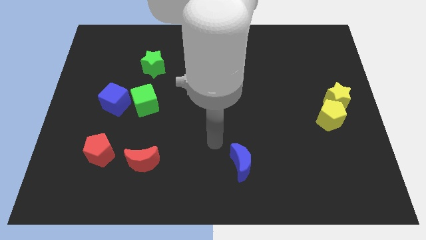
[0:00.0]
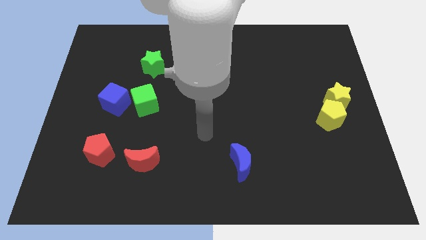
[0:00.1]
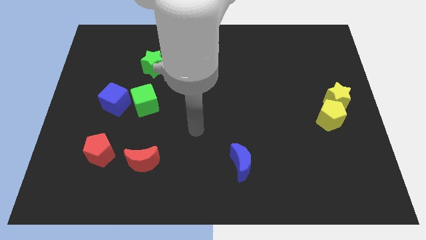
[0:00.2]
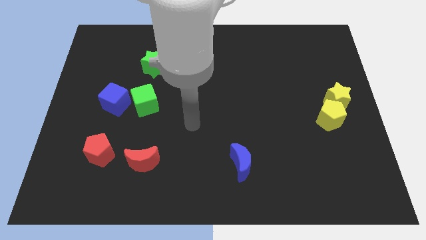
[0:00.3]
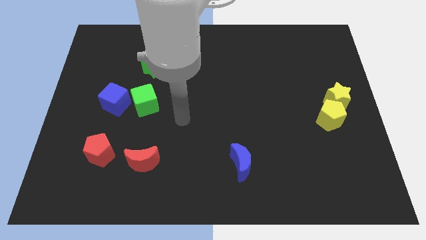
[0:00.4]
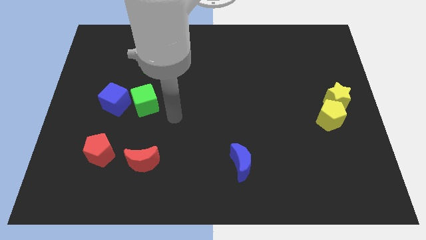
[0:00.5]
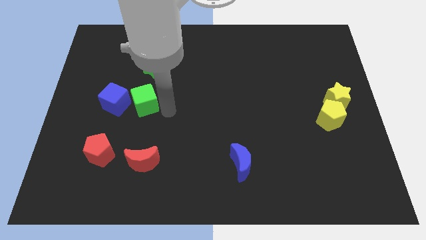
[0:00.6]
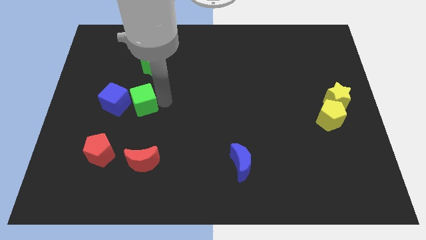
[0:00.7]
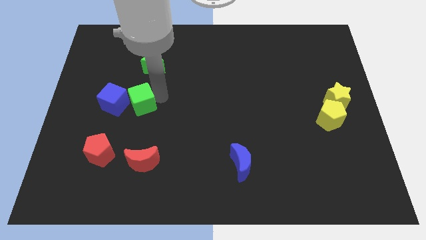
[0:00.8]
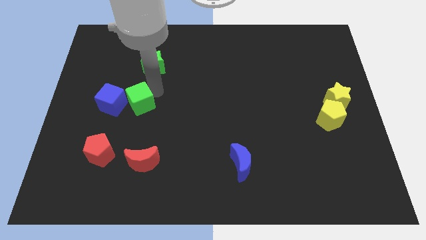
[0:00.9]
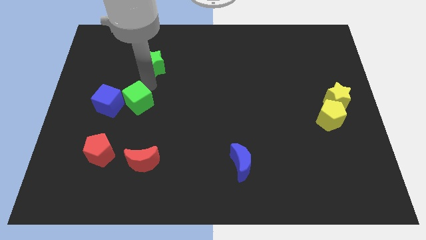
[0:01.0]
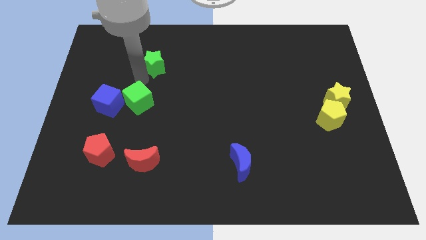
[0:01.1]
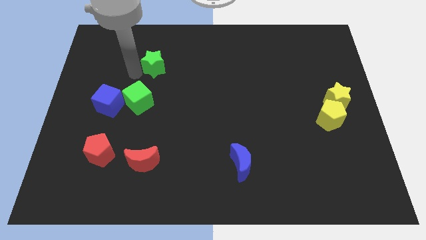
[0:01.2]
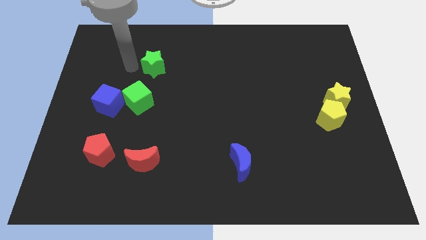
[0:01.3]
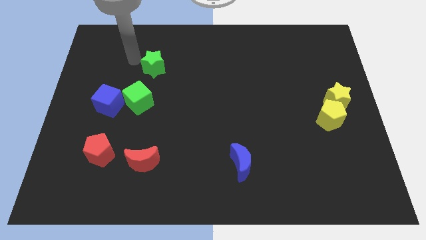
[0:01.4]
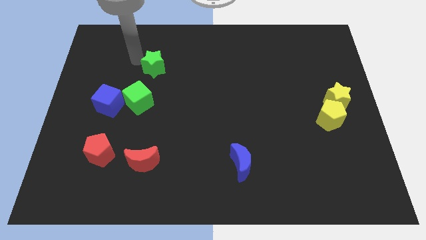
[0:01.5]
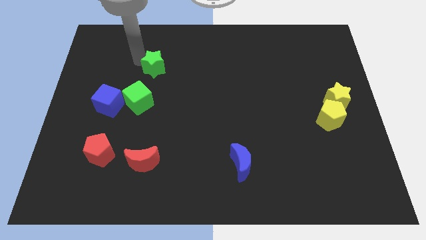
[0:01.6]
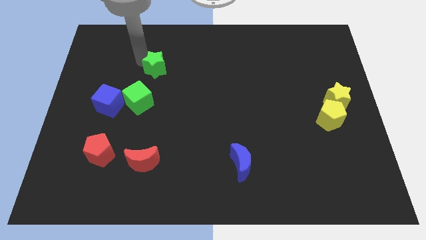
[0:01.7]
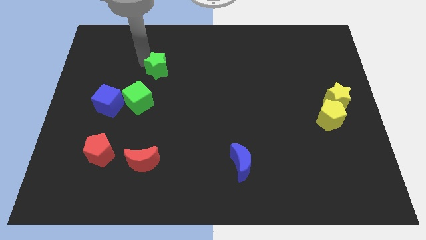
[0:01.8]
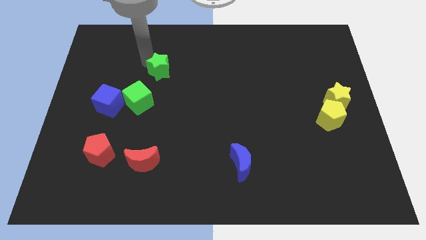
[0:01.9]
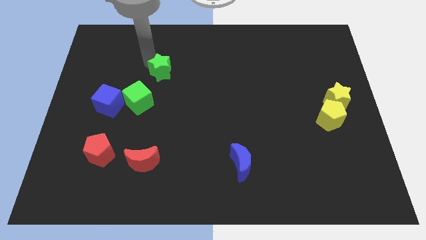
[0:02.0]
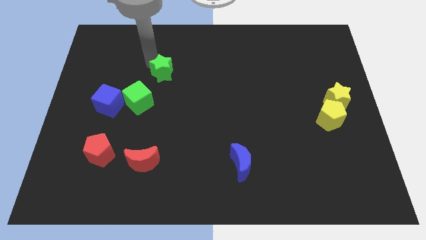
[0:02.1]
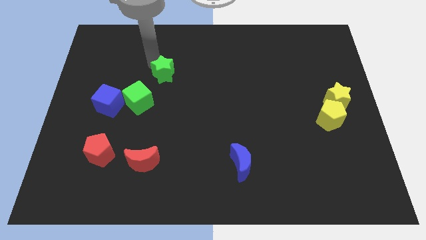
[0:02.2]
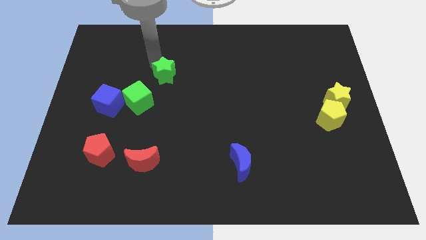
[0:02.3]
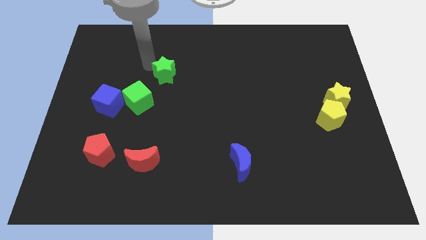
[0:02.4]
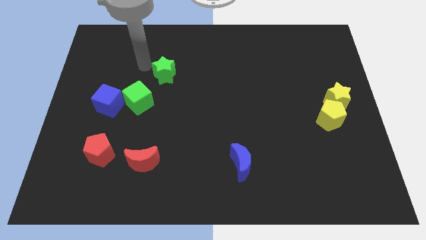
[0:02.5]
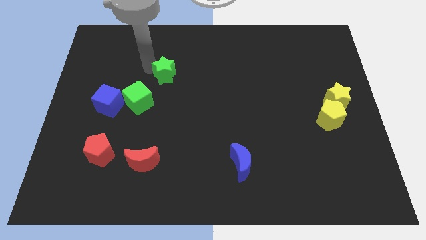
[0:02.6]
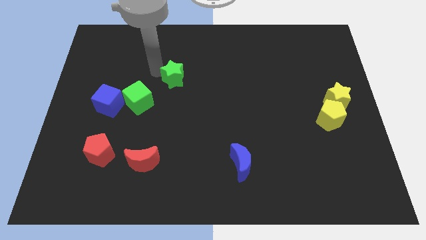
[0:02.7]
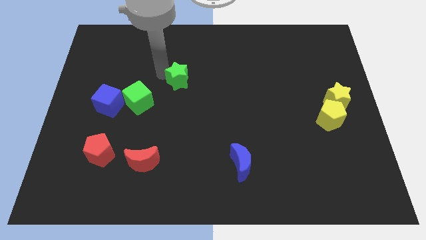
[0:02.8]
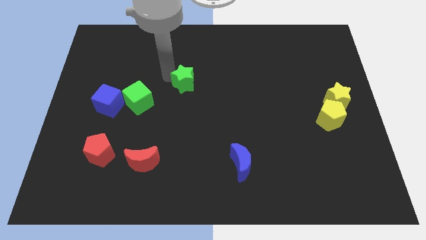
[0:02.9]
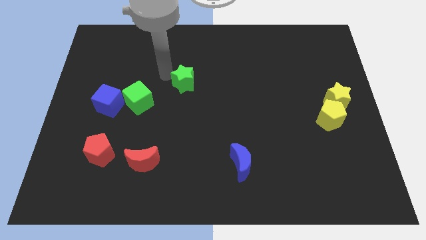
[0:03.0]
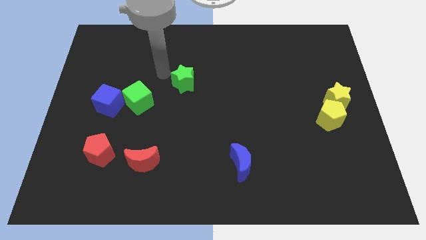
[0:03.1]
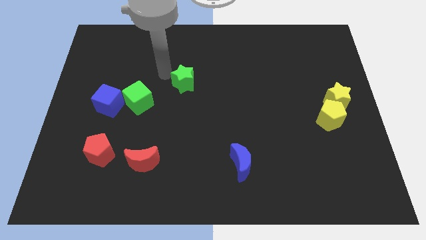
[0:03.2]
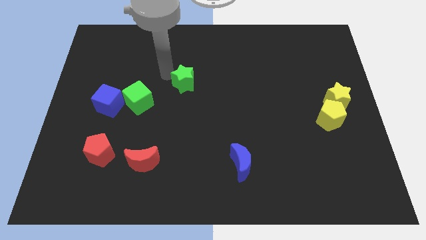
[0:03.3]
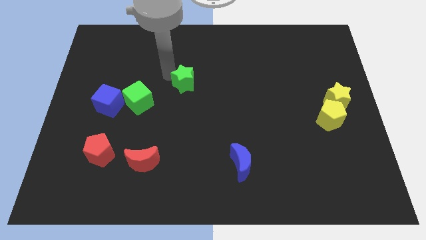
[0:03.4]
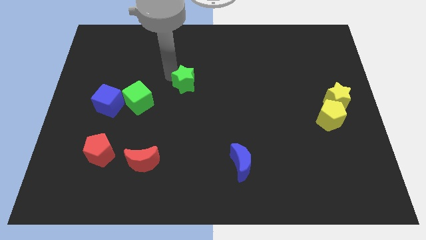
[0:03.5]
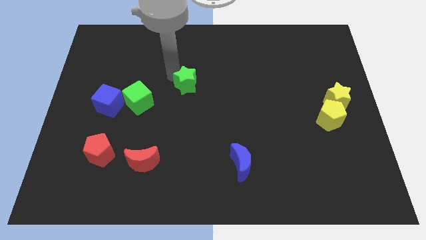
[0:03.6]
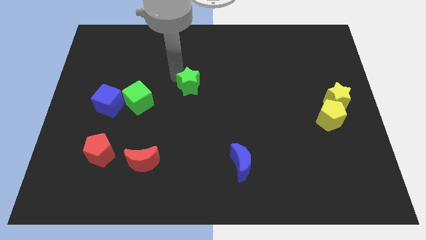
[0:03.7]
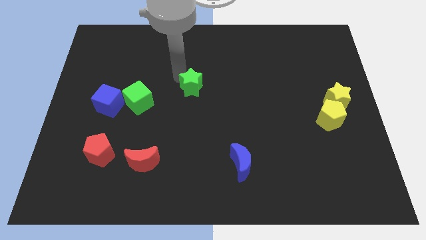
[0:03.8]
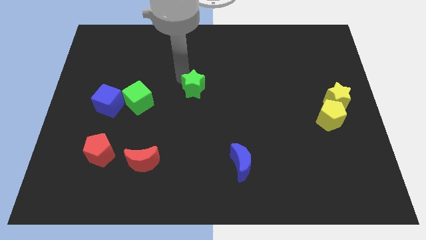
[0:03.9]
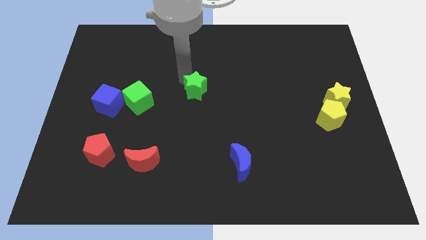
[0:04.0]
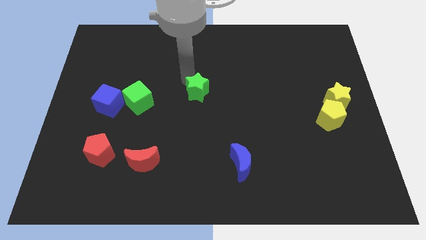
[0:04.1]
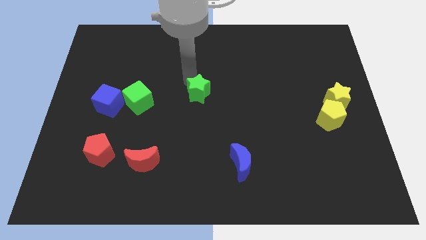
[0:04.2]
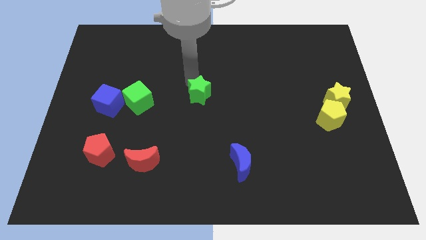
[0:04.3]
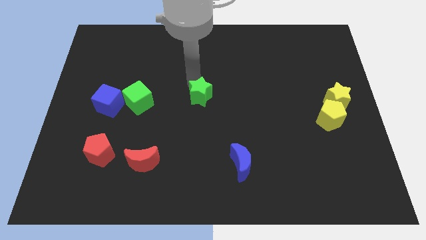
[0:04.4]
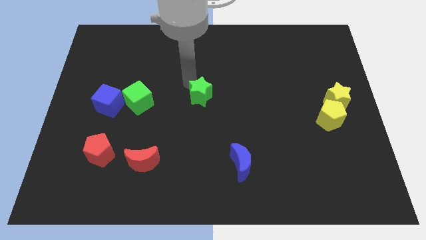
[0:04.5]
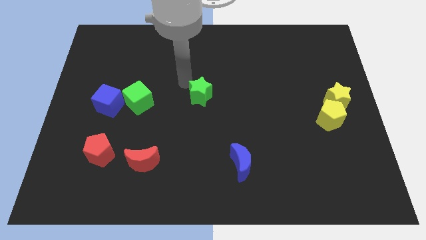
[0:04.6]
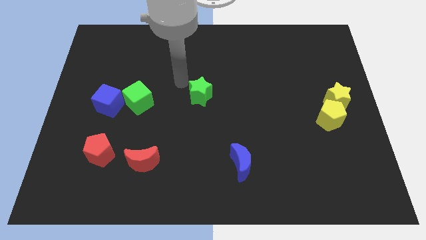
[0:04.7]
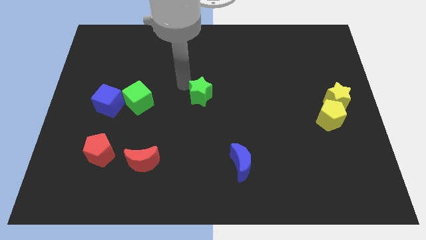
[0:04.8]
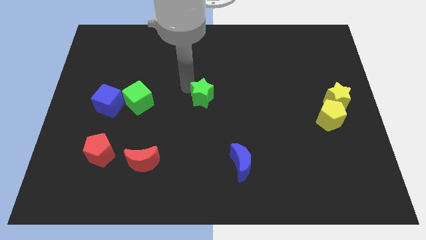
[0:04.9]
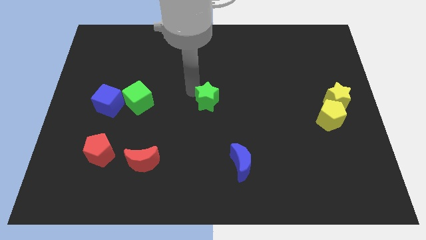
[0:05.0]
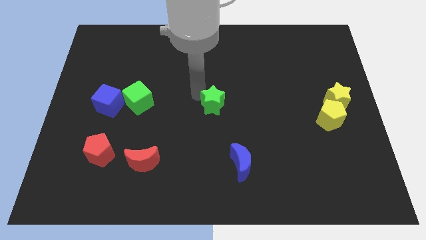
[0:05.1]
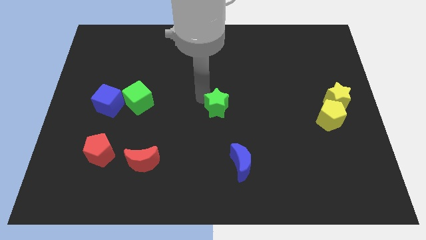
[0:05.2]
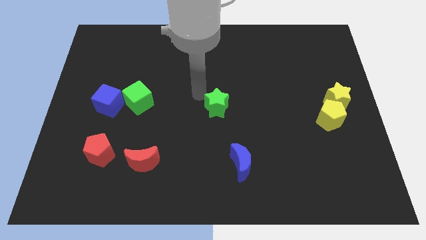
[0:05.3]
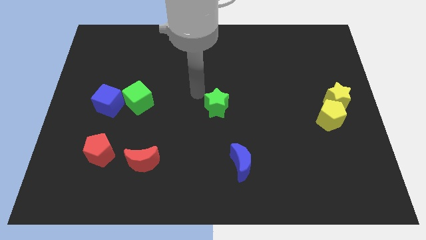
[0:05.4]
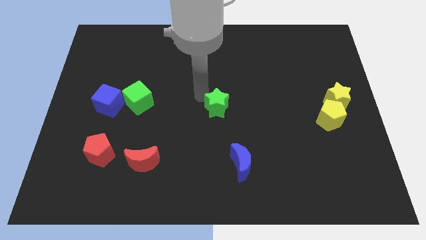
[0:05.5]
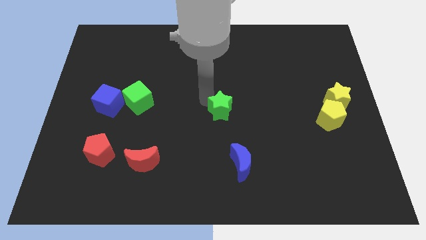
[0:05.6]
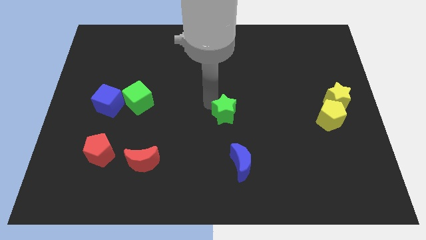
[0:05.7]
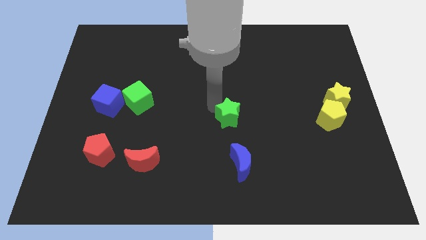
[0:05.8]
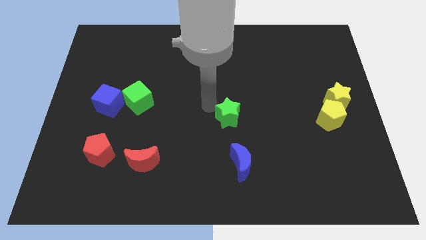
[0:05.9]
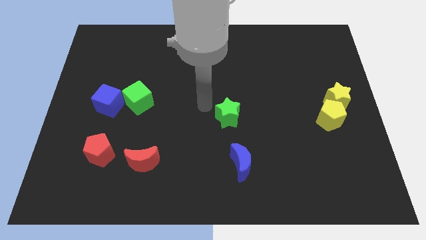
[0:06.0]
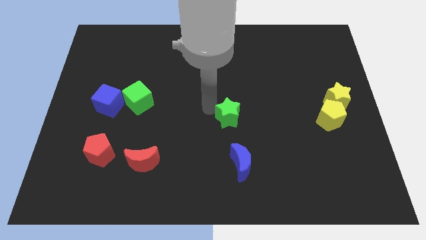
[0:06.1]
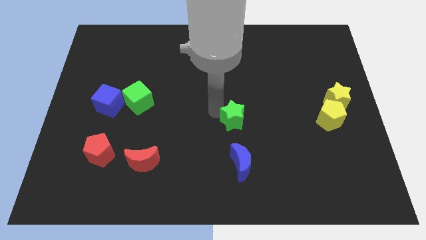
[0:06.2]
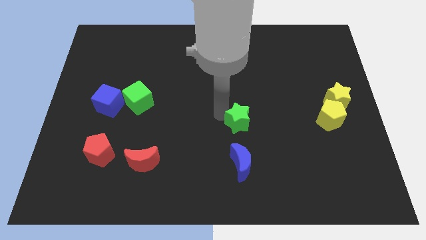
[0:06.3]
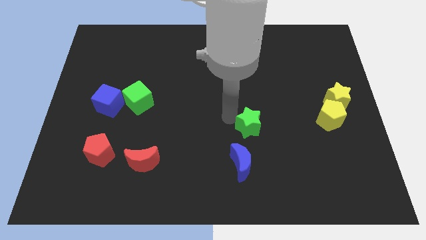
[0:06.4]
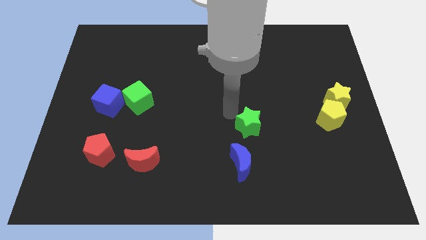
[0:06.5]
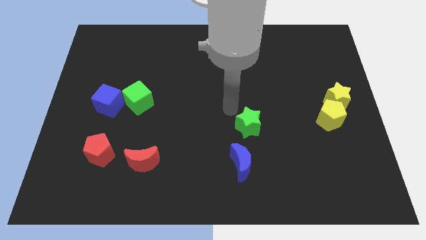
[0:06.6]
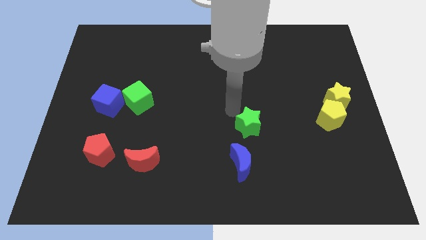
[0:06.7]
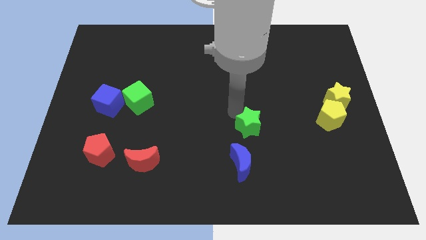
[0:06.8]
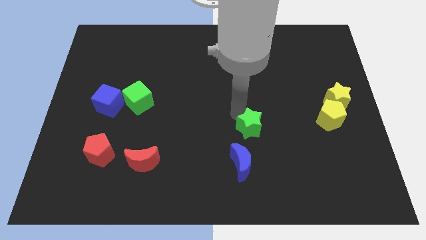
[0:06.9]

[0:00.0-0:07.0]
slide the green star to the top right side of the blue moon
